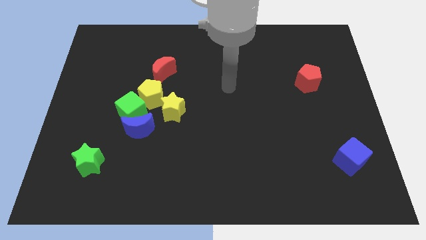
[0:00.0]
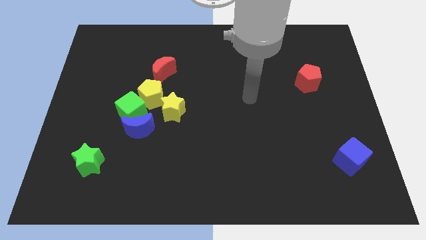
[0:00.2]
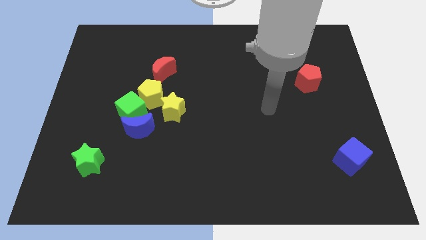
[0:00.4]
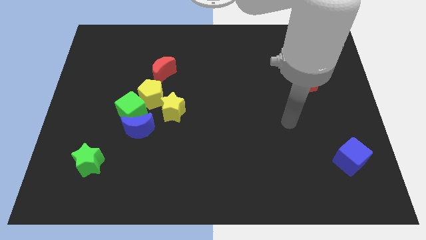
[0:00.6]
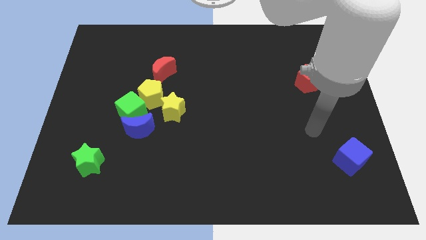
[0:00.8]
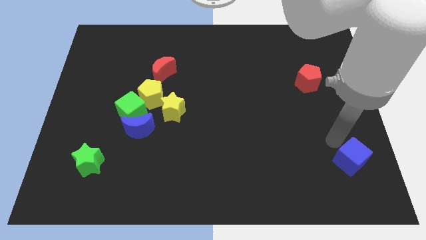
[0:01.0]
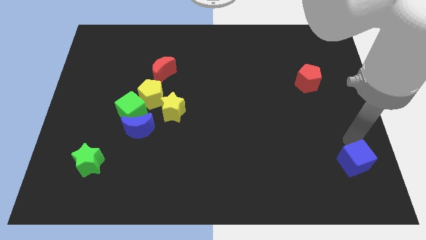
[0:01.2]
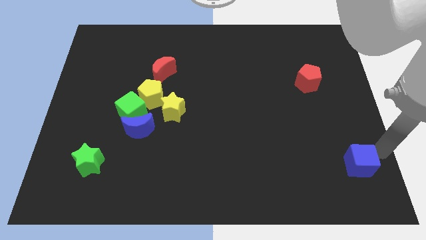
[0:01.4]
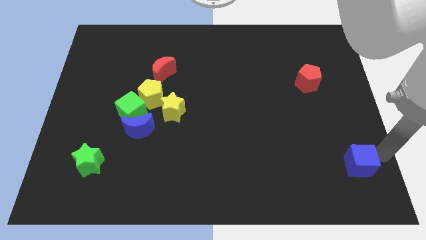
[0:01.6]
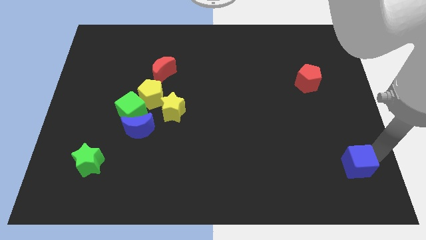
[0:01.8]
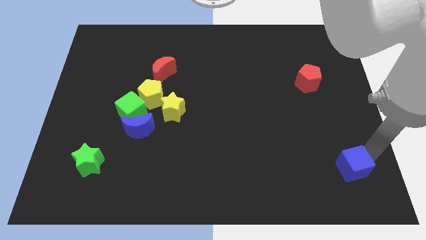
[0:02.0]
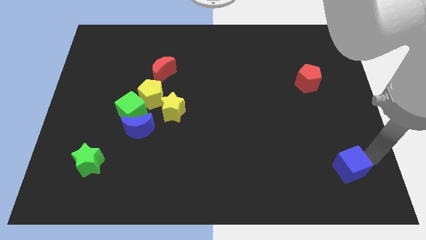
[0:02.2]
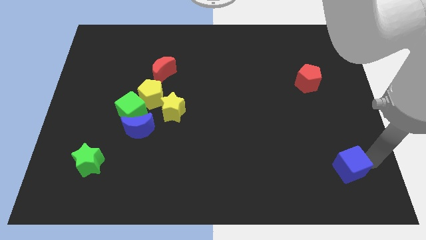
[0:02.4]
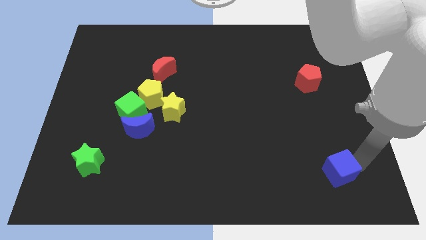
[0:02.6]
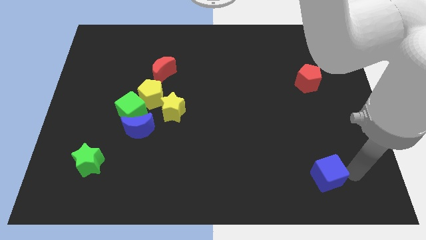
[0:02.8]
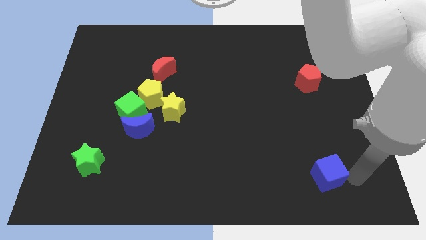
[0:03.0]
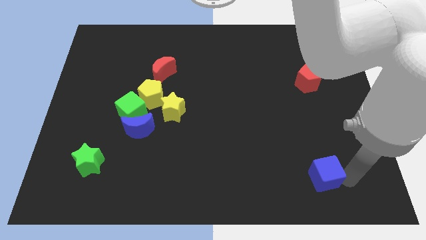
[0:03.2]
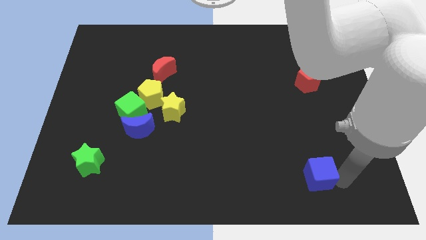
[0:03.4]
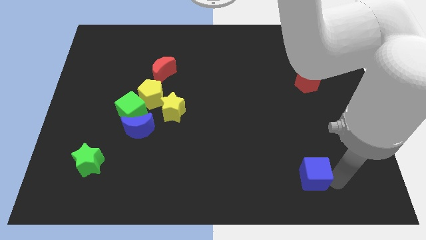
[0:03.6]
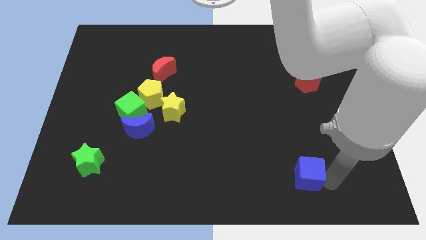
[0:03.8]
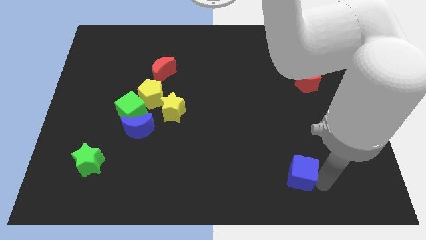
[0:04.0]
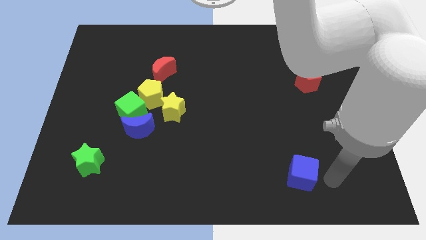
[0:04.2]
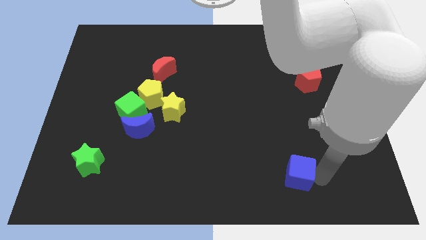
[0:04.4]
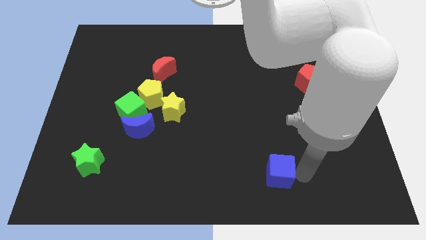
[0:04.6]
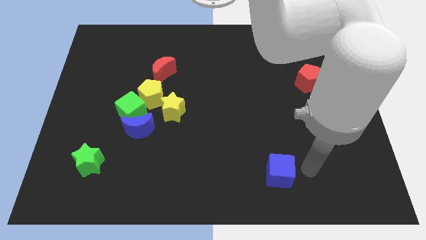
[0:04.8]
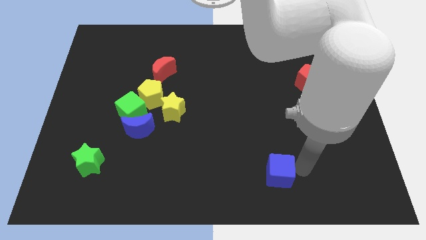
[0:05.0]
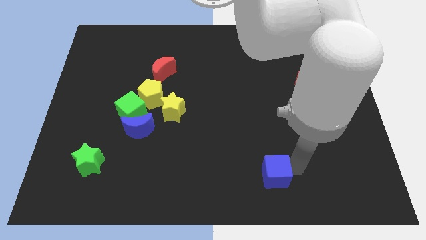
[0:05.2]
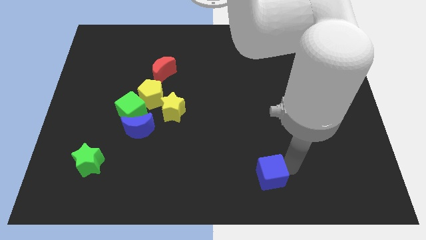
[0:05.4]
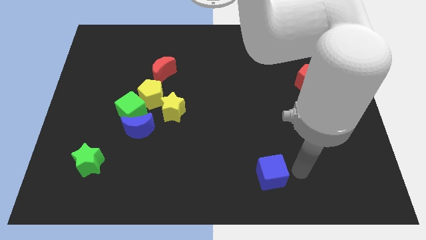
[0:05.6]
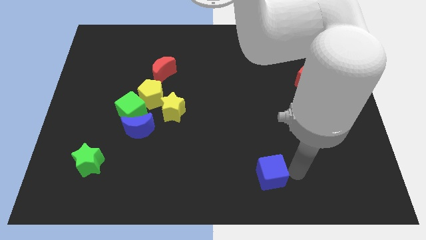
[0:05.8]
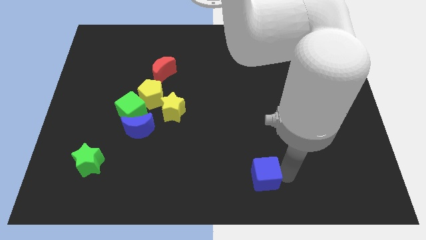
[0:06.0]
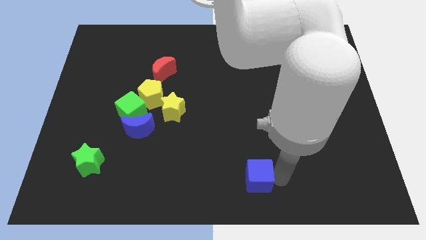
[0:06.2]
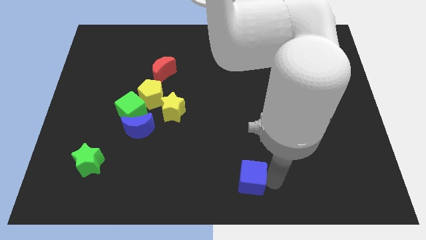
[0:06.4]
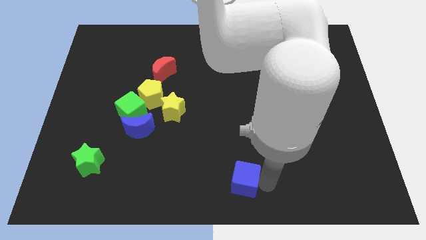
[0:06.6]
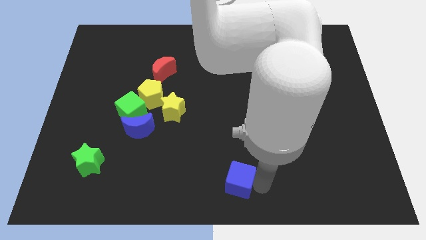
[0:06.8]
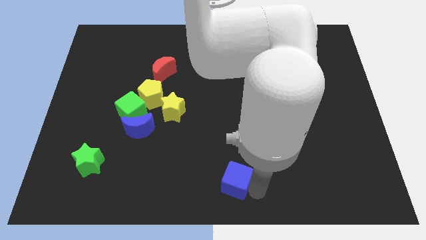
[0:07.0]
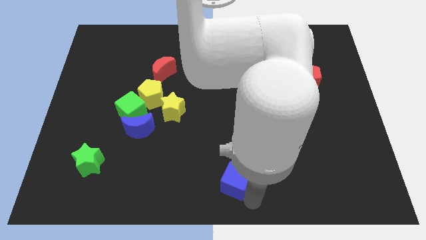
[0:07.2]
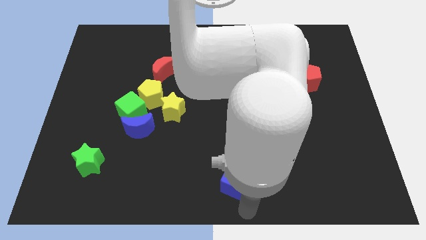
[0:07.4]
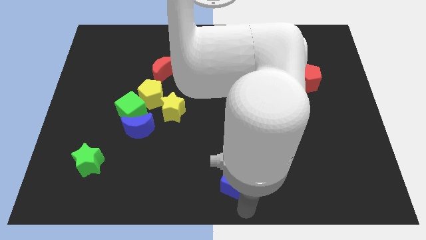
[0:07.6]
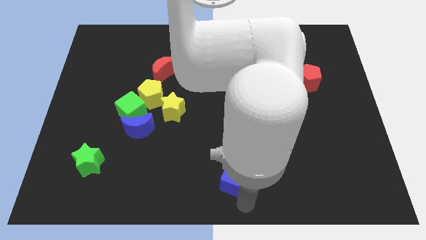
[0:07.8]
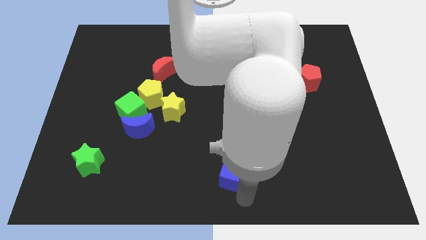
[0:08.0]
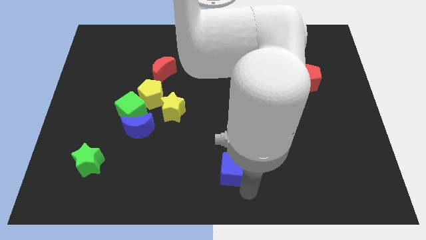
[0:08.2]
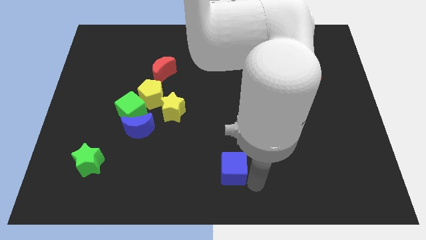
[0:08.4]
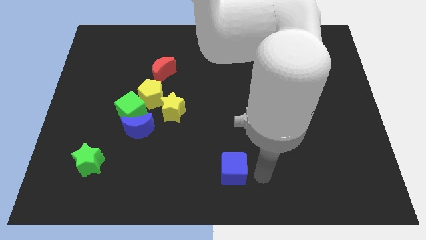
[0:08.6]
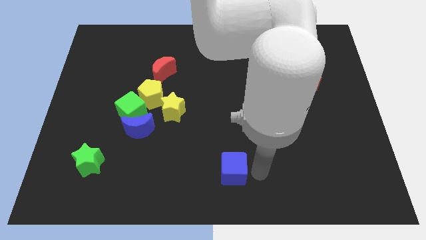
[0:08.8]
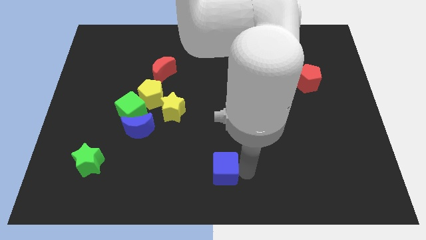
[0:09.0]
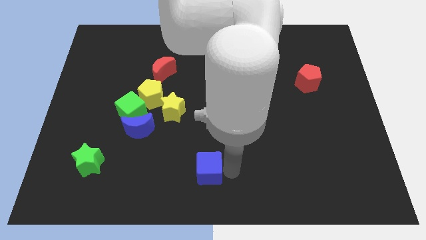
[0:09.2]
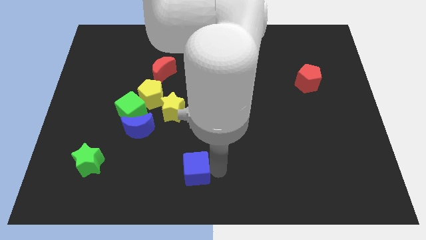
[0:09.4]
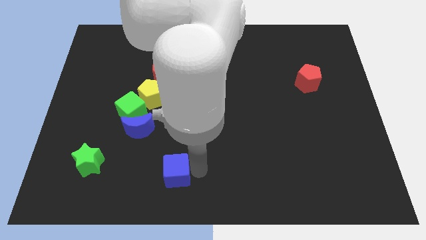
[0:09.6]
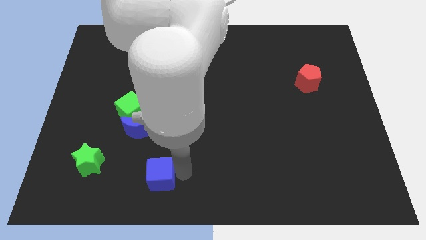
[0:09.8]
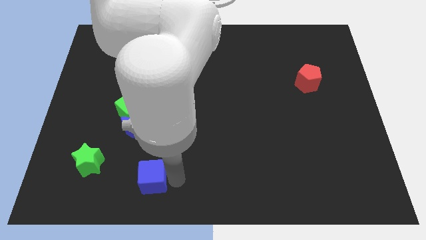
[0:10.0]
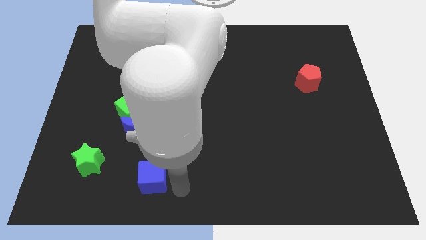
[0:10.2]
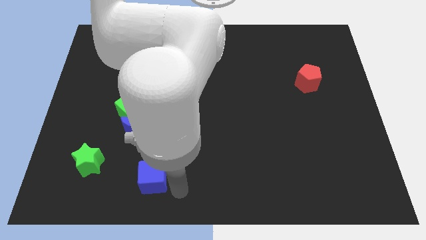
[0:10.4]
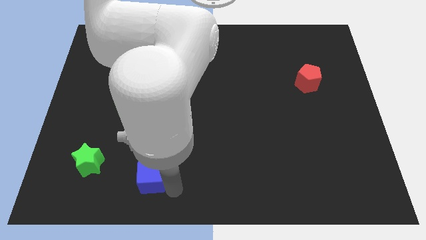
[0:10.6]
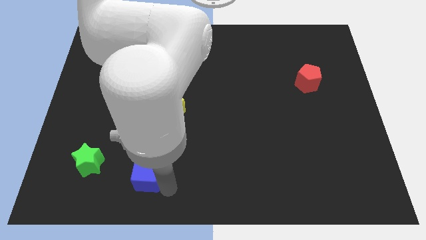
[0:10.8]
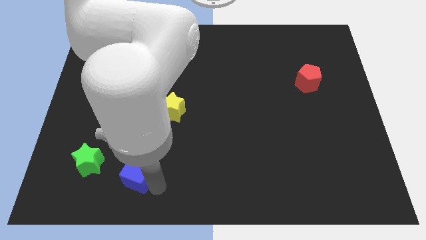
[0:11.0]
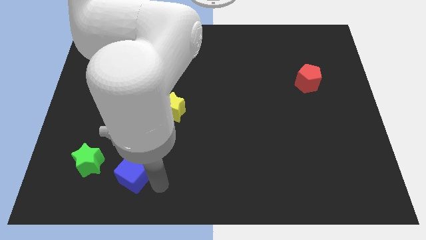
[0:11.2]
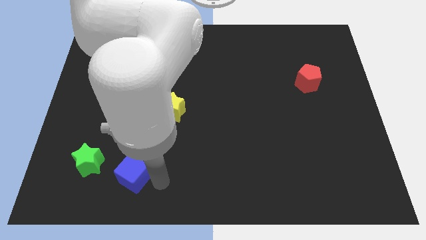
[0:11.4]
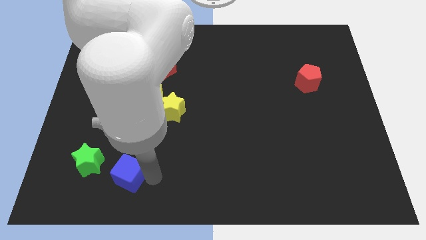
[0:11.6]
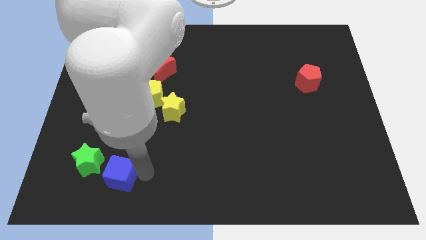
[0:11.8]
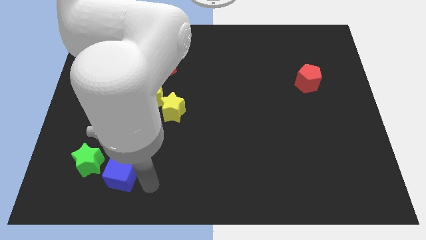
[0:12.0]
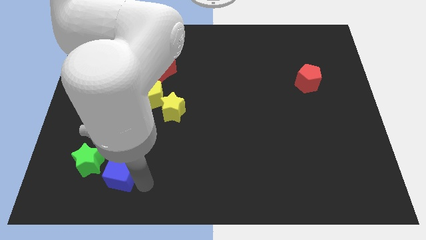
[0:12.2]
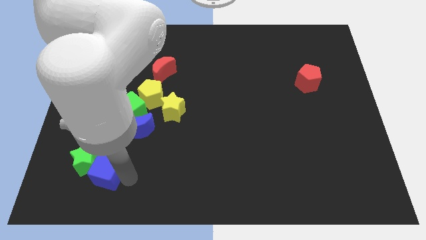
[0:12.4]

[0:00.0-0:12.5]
move the blue cube close to the green star
